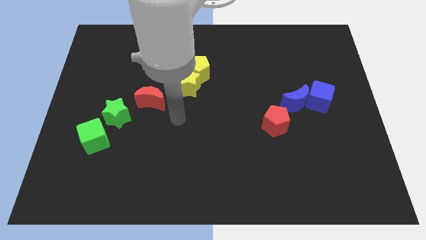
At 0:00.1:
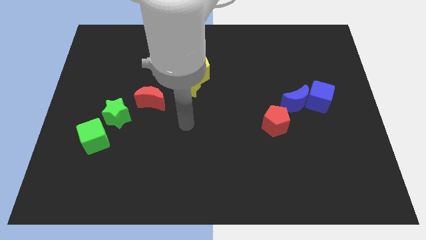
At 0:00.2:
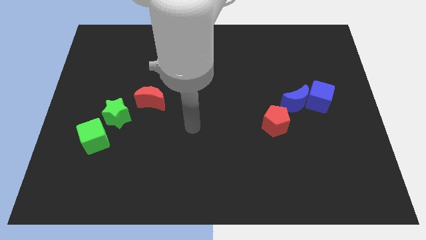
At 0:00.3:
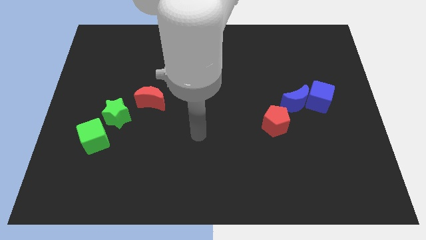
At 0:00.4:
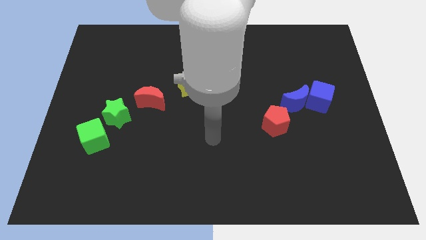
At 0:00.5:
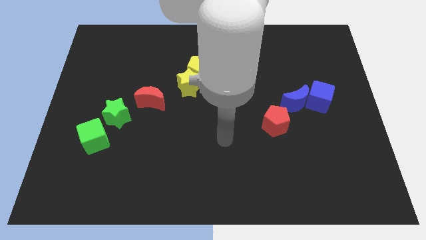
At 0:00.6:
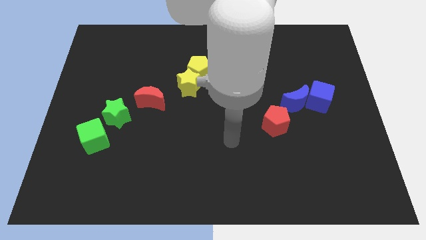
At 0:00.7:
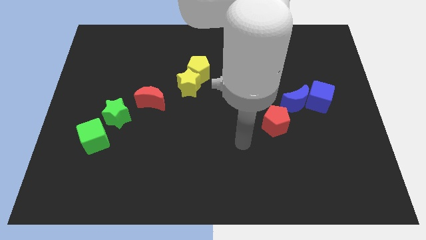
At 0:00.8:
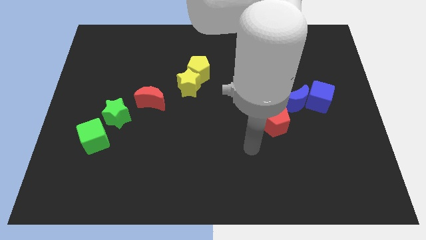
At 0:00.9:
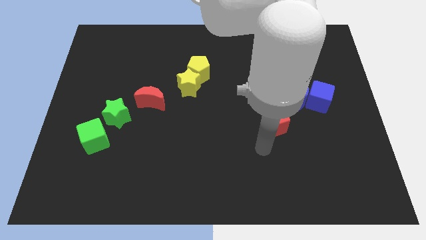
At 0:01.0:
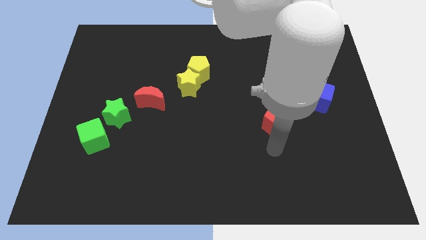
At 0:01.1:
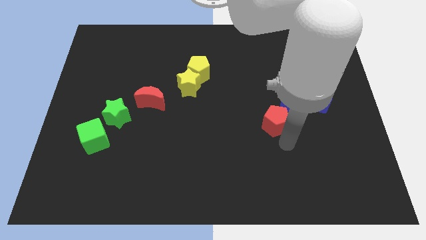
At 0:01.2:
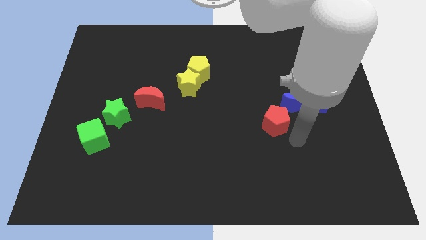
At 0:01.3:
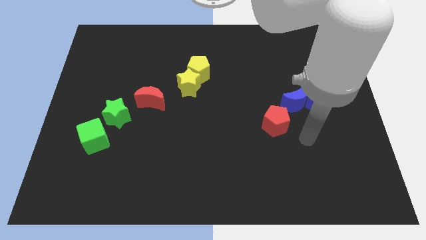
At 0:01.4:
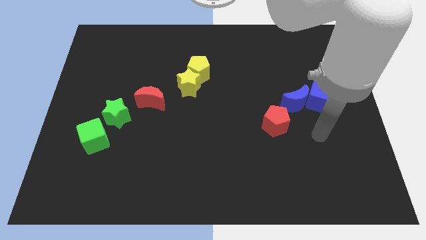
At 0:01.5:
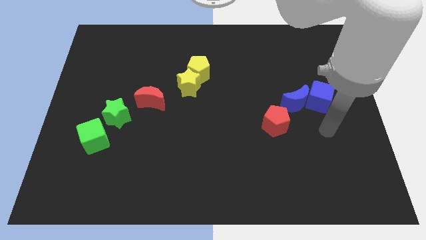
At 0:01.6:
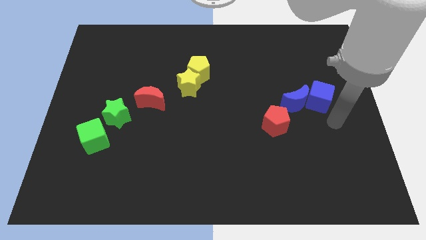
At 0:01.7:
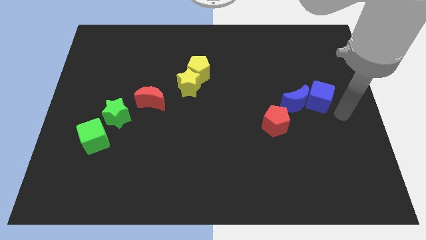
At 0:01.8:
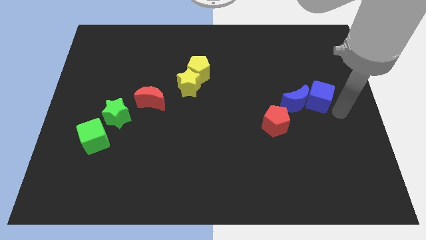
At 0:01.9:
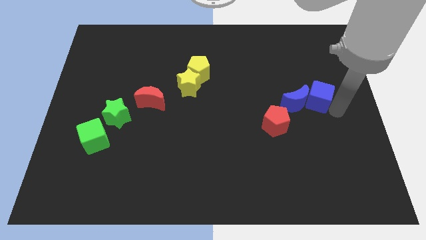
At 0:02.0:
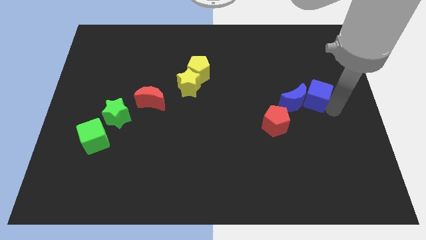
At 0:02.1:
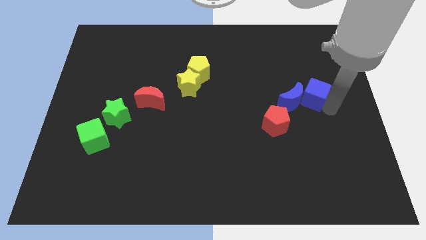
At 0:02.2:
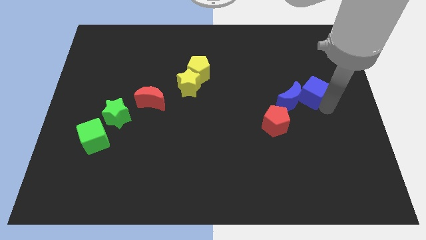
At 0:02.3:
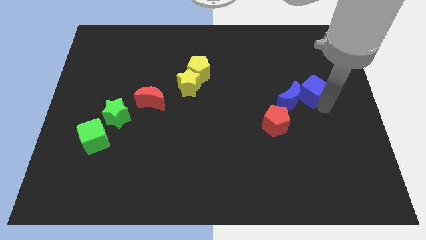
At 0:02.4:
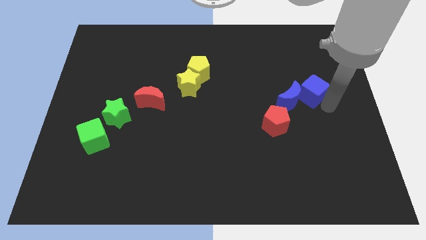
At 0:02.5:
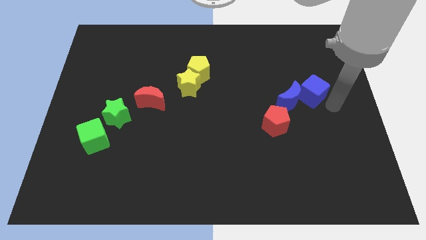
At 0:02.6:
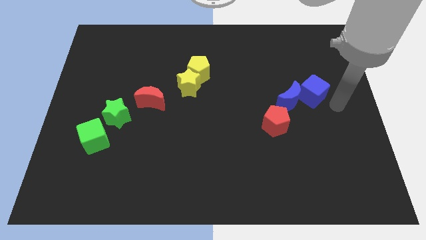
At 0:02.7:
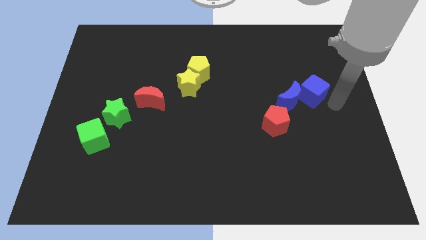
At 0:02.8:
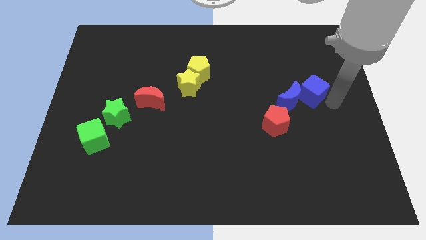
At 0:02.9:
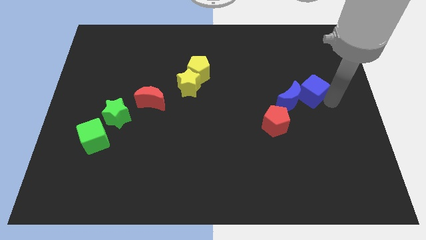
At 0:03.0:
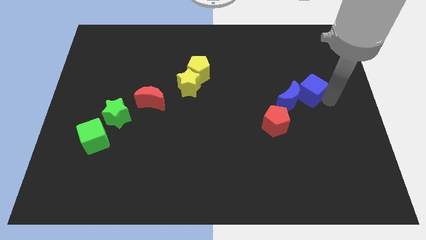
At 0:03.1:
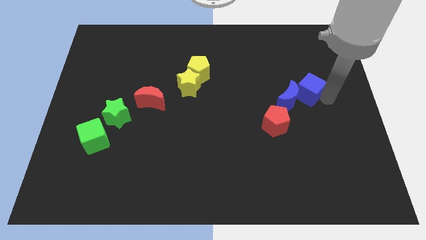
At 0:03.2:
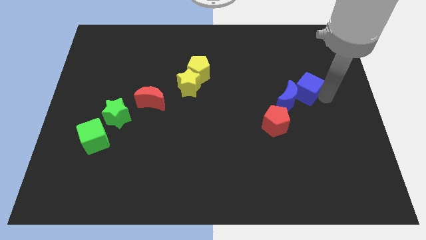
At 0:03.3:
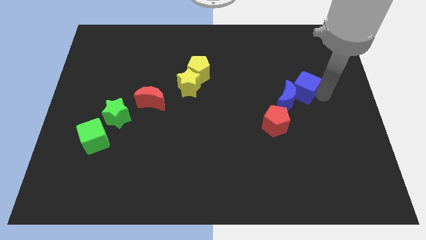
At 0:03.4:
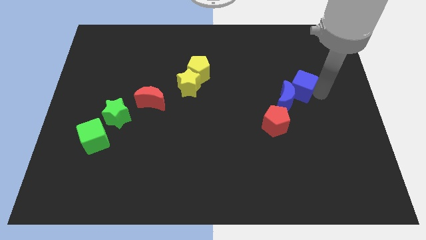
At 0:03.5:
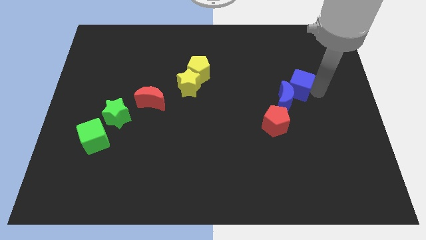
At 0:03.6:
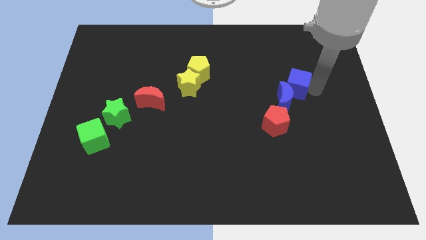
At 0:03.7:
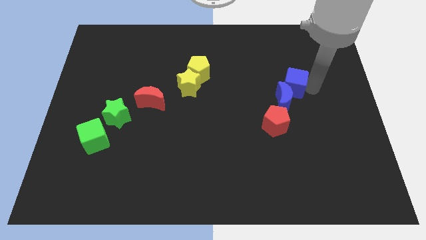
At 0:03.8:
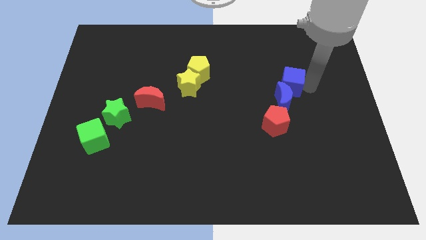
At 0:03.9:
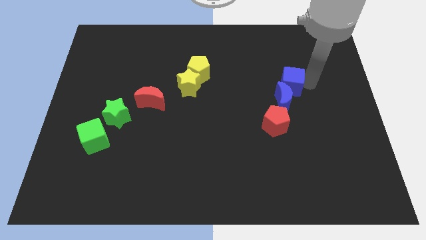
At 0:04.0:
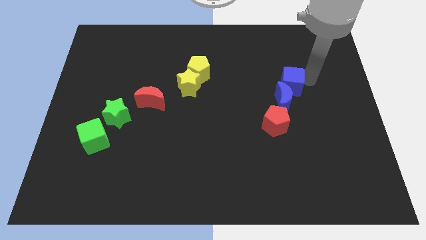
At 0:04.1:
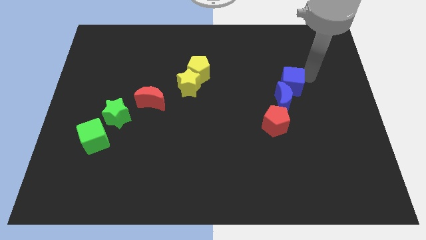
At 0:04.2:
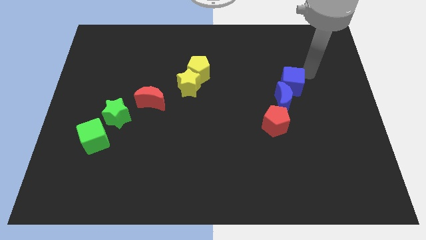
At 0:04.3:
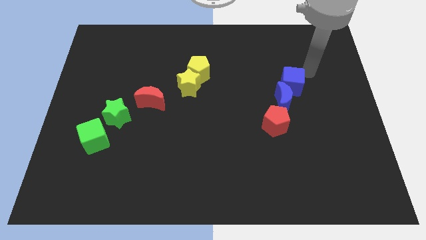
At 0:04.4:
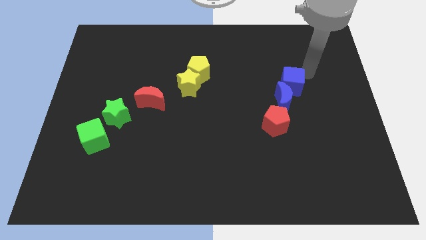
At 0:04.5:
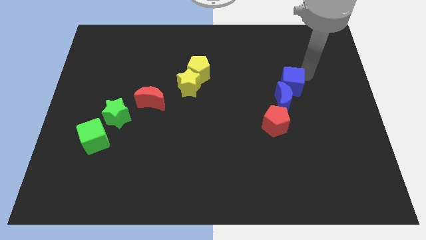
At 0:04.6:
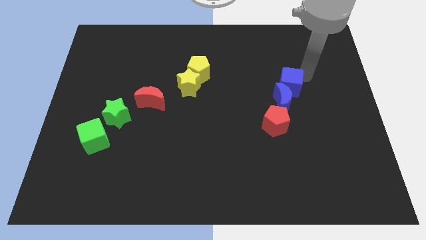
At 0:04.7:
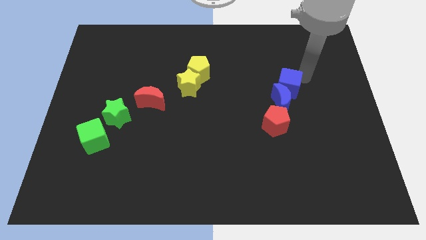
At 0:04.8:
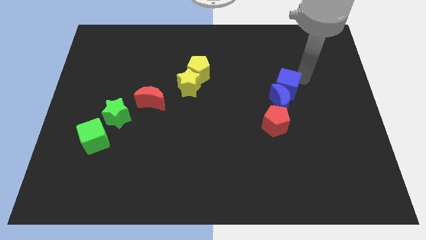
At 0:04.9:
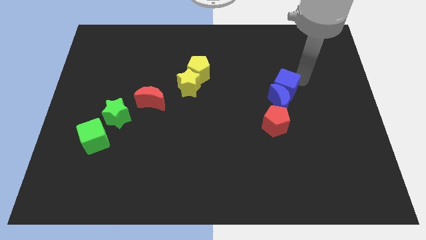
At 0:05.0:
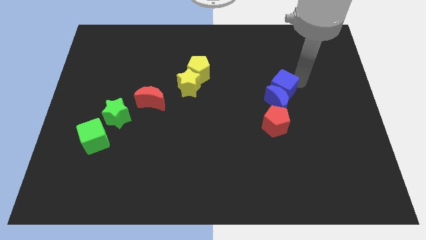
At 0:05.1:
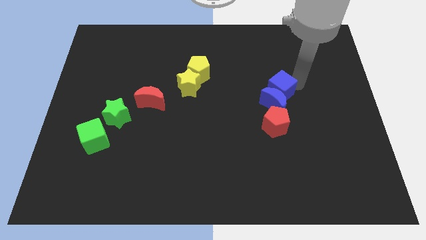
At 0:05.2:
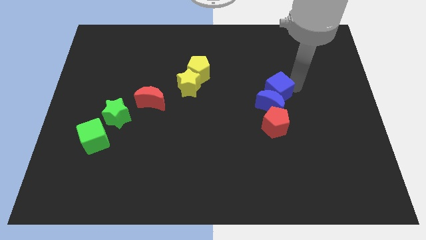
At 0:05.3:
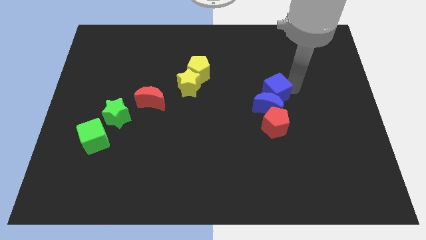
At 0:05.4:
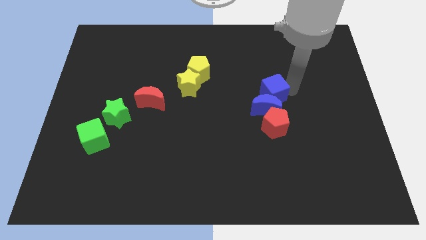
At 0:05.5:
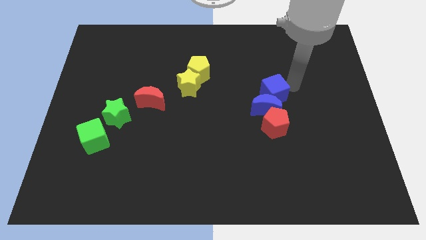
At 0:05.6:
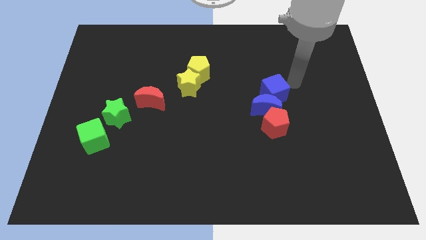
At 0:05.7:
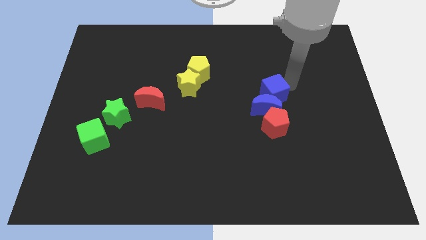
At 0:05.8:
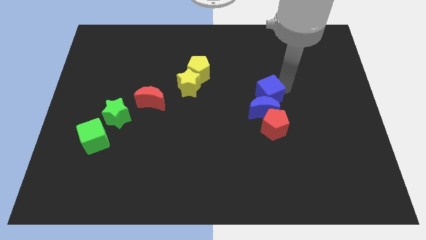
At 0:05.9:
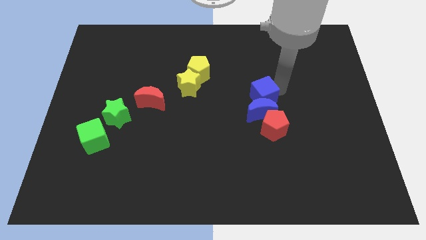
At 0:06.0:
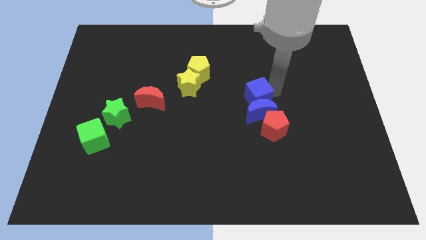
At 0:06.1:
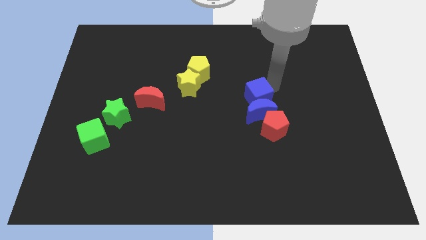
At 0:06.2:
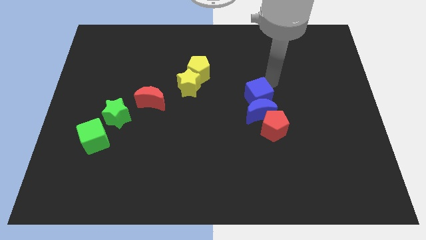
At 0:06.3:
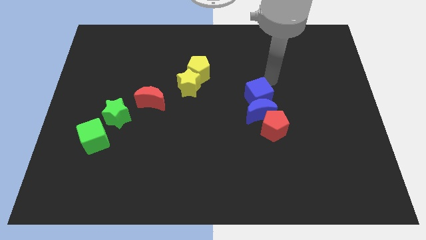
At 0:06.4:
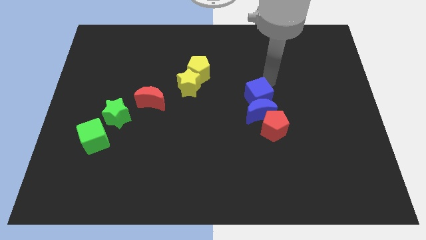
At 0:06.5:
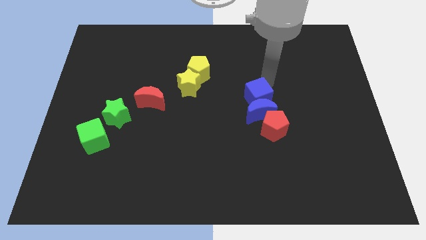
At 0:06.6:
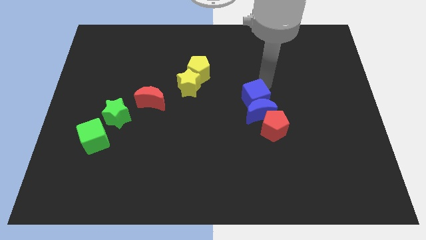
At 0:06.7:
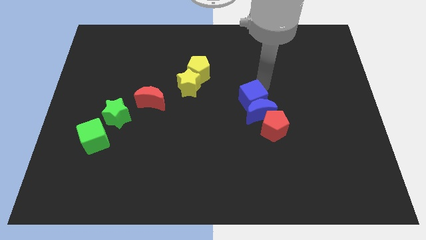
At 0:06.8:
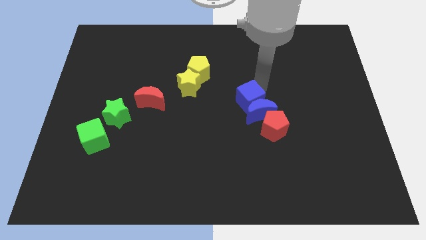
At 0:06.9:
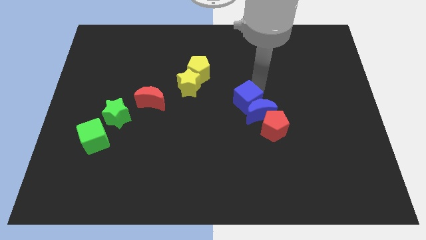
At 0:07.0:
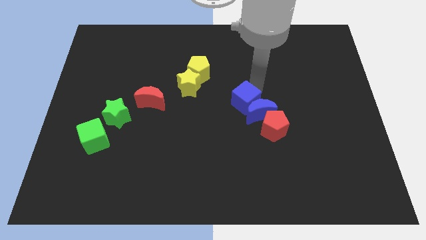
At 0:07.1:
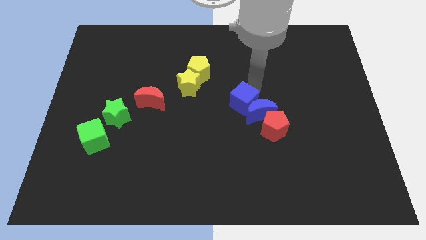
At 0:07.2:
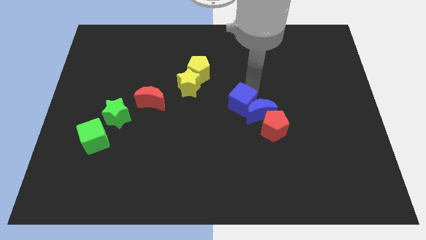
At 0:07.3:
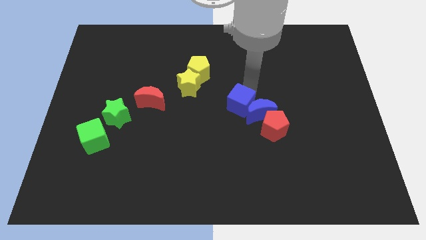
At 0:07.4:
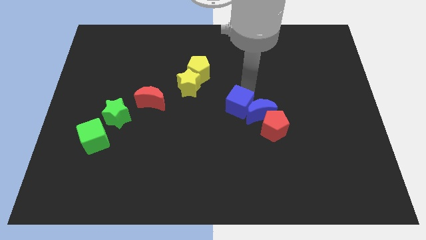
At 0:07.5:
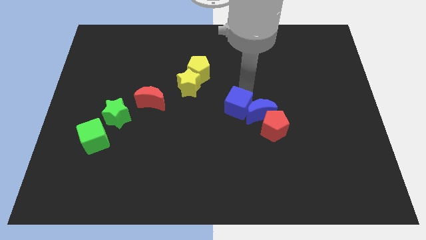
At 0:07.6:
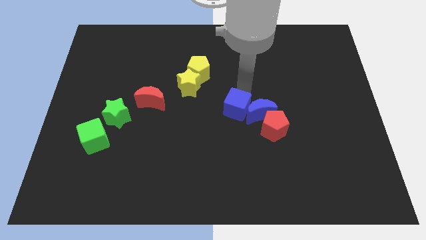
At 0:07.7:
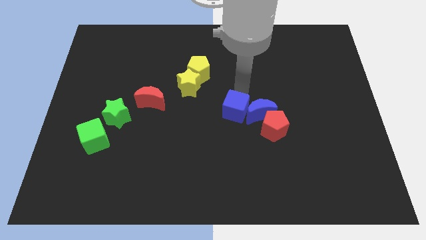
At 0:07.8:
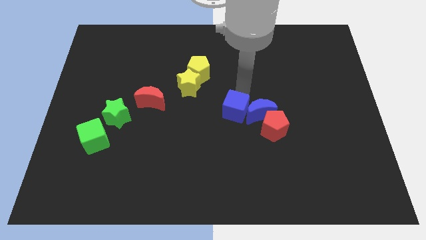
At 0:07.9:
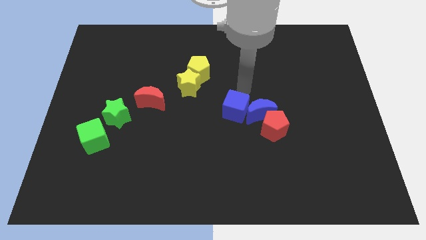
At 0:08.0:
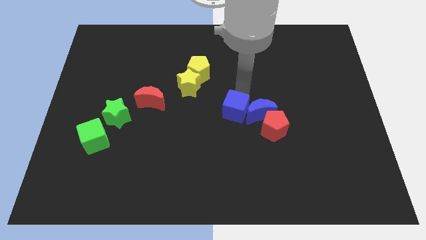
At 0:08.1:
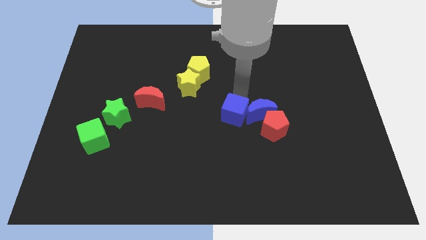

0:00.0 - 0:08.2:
push the blue cube to the left of the red pentagon
